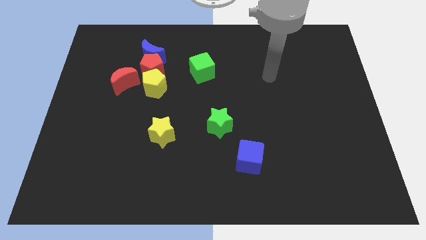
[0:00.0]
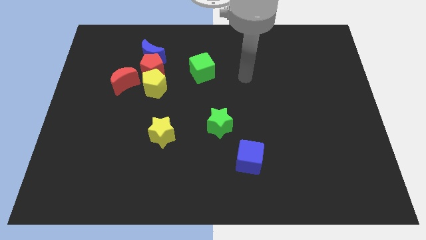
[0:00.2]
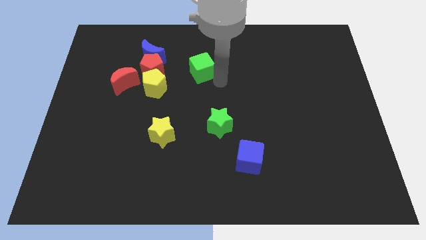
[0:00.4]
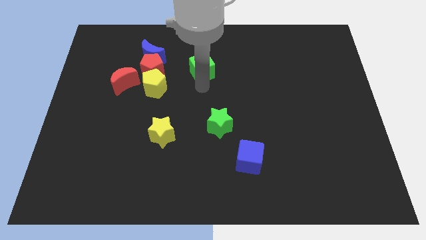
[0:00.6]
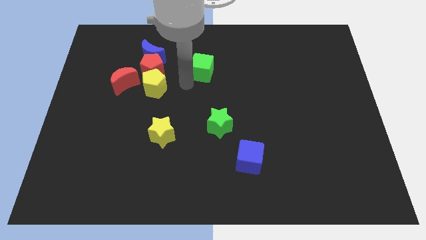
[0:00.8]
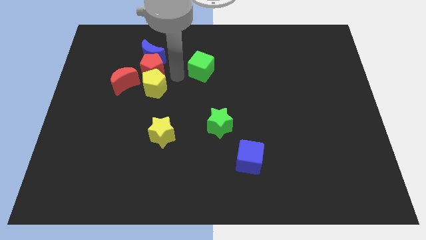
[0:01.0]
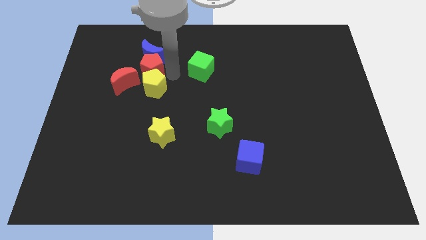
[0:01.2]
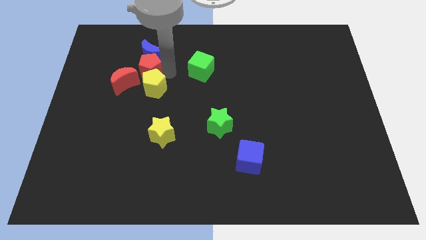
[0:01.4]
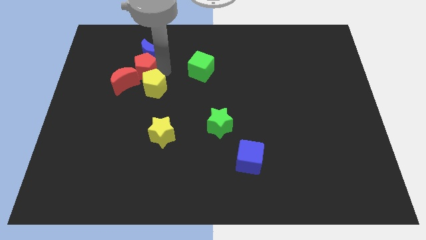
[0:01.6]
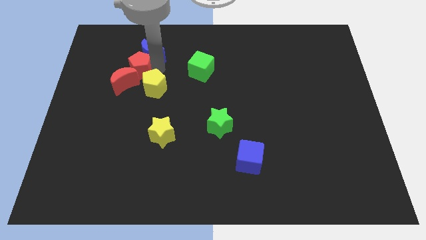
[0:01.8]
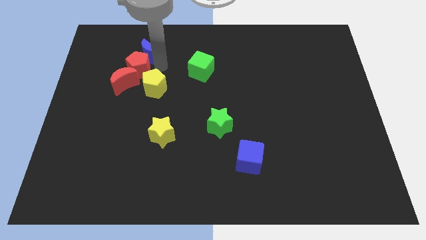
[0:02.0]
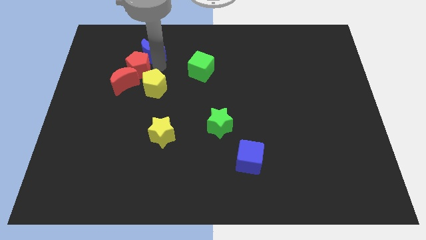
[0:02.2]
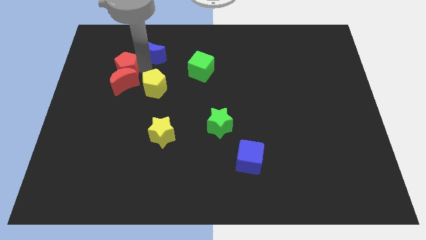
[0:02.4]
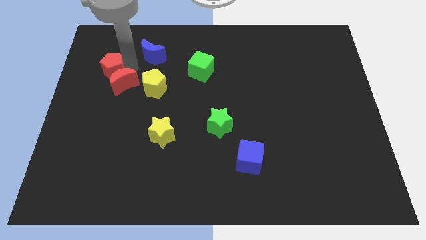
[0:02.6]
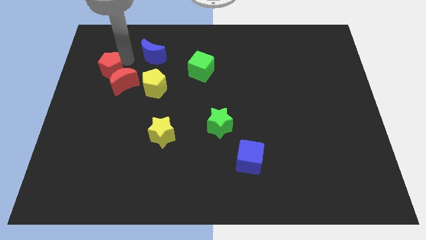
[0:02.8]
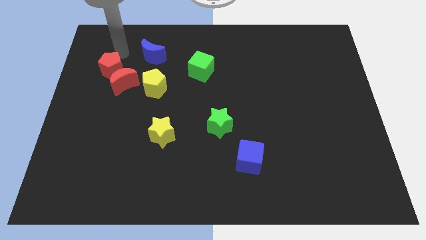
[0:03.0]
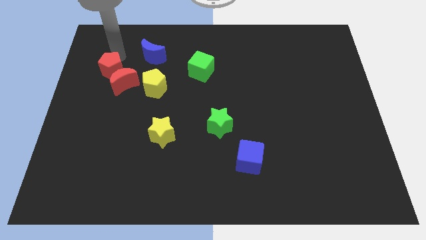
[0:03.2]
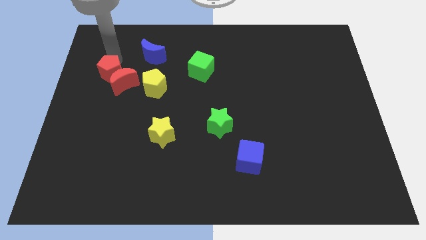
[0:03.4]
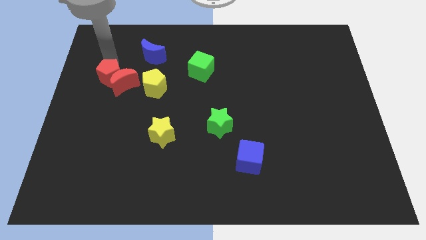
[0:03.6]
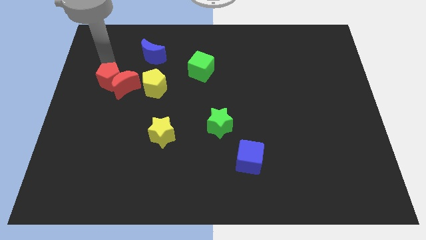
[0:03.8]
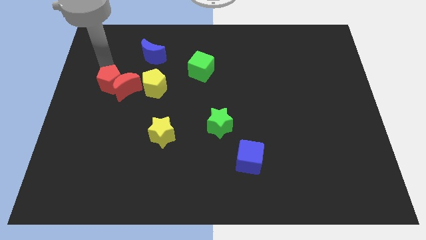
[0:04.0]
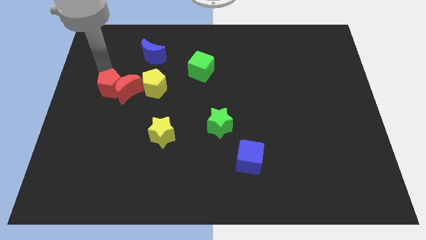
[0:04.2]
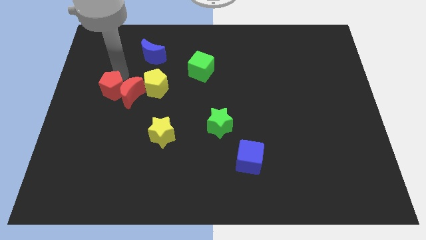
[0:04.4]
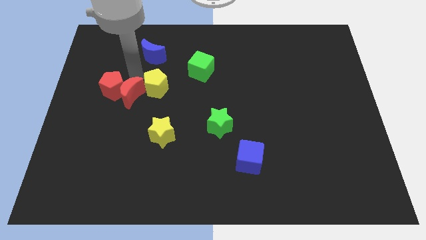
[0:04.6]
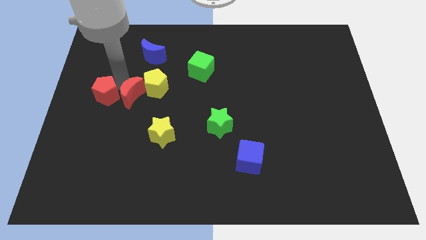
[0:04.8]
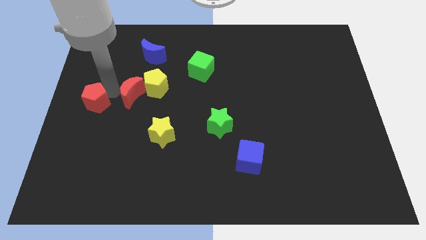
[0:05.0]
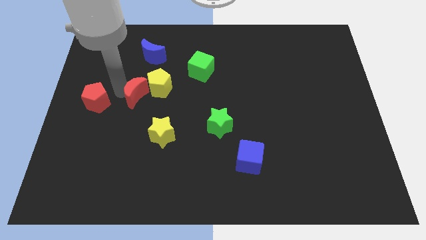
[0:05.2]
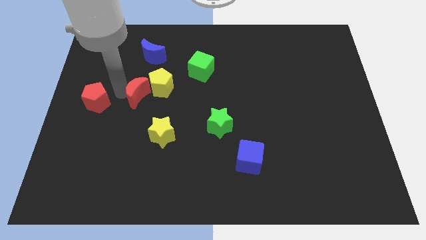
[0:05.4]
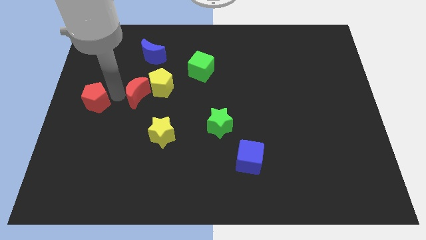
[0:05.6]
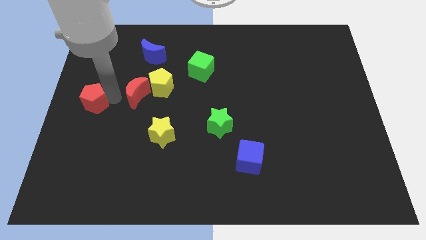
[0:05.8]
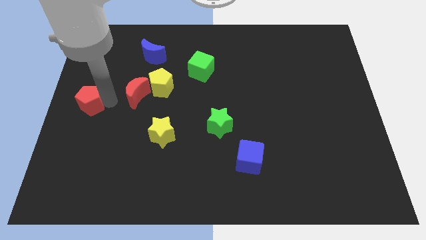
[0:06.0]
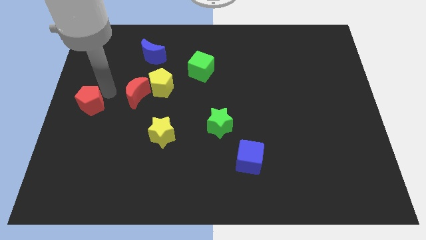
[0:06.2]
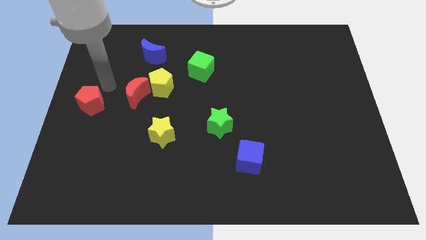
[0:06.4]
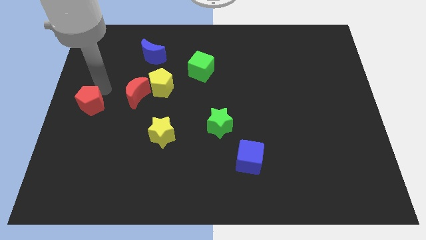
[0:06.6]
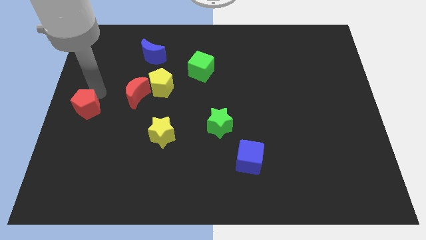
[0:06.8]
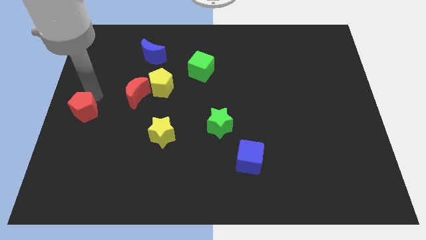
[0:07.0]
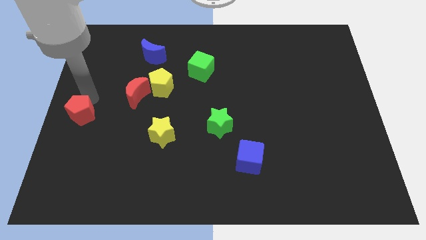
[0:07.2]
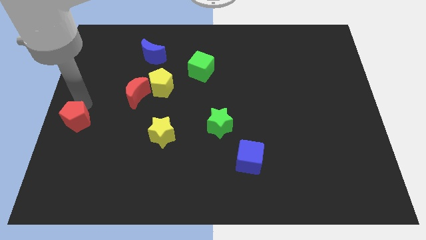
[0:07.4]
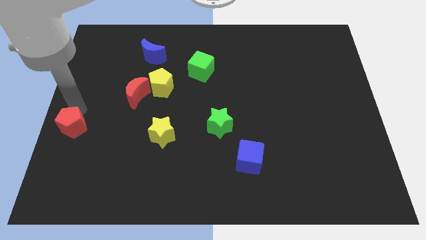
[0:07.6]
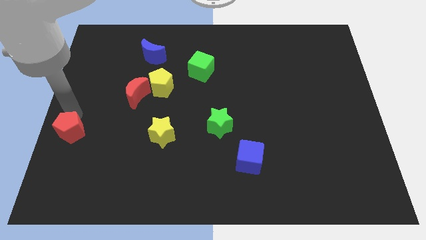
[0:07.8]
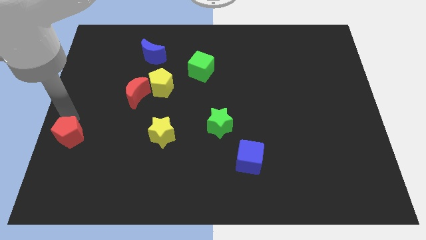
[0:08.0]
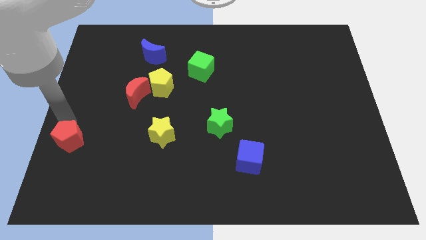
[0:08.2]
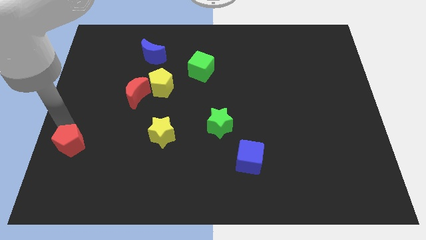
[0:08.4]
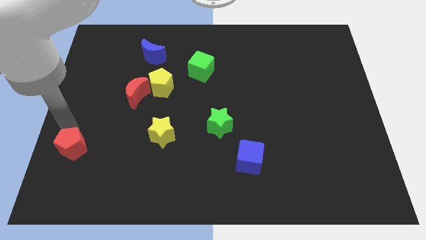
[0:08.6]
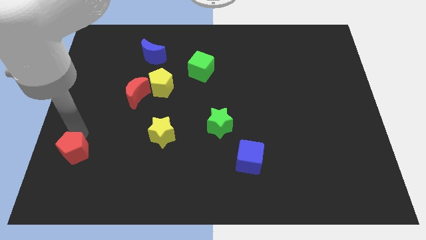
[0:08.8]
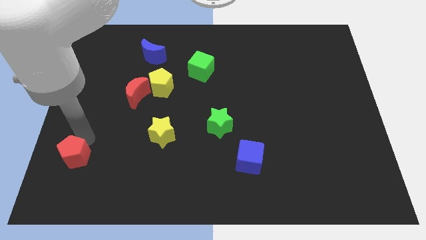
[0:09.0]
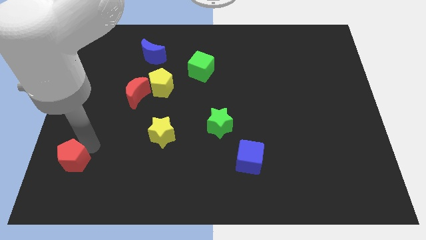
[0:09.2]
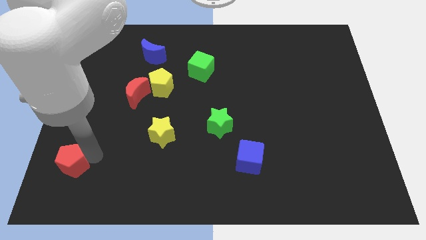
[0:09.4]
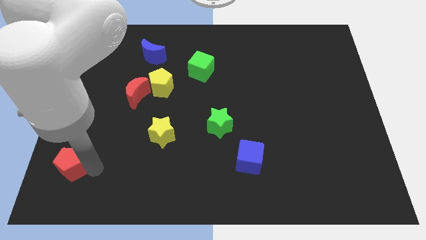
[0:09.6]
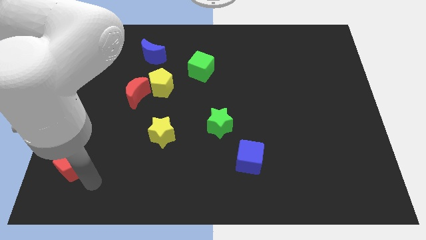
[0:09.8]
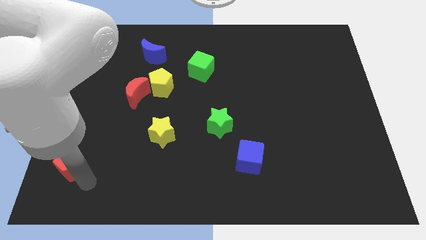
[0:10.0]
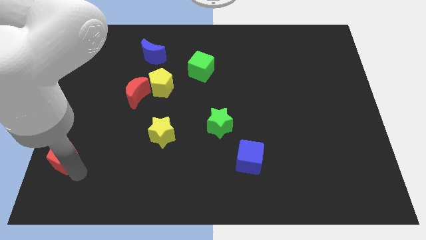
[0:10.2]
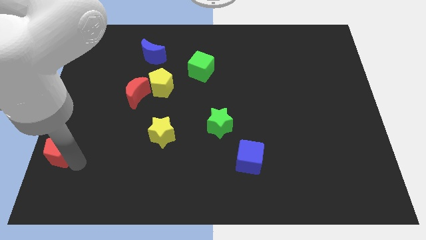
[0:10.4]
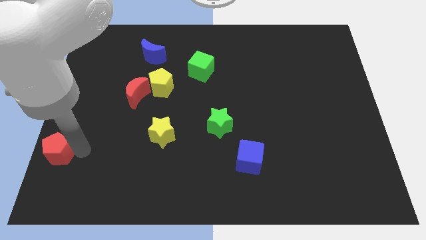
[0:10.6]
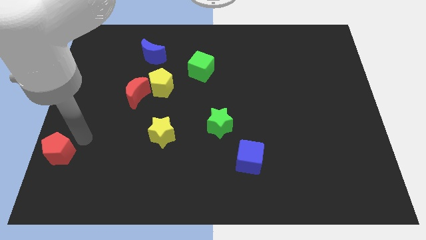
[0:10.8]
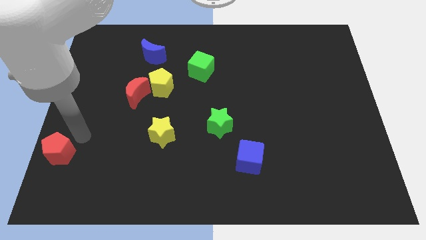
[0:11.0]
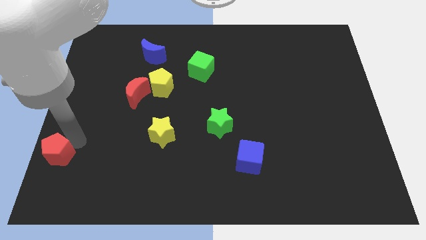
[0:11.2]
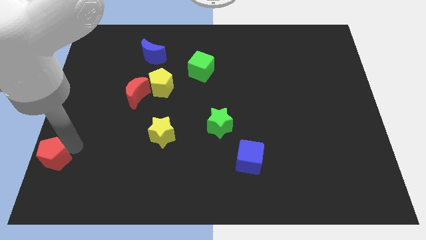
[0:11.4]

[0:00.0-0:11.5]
put the red pentagon to the lower left corner

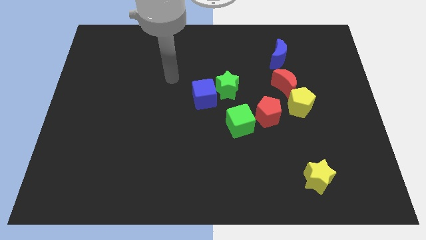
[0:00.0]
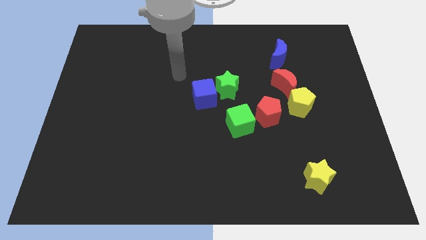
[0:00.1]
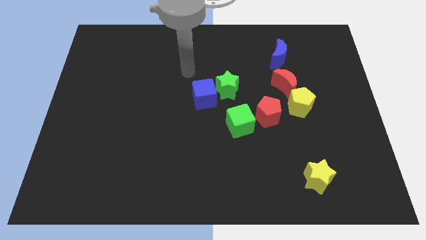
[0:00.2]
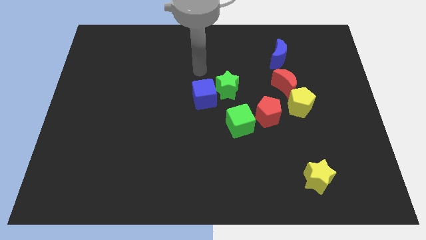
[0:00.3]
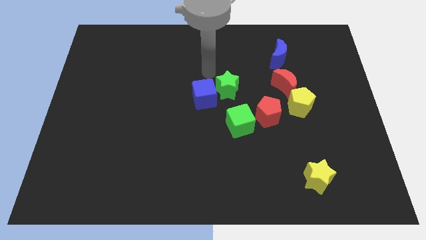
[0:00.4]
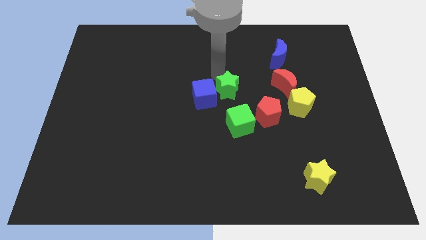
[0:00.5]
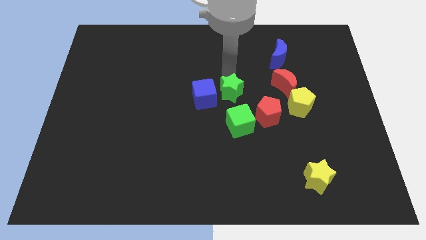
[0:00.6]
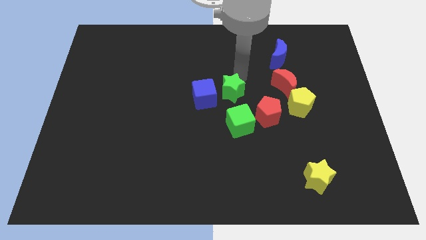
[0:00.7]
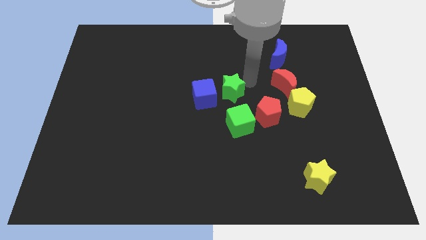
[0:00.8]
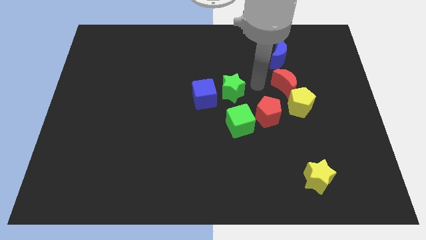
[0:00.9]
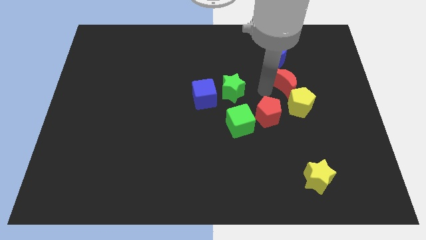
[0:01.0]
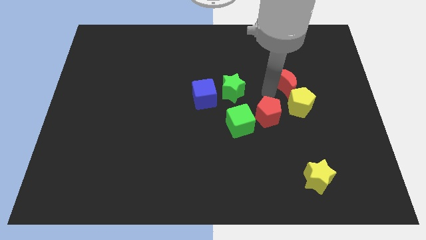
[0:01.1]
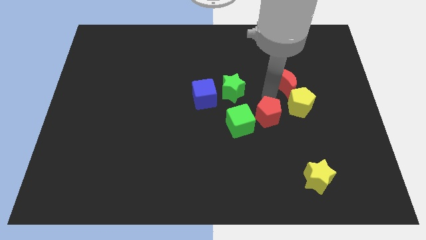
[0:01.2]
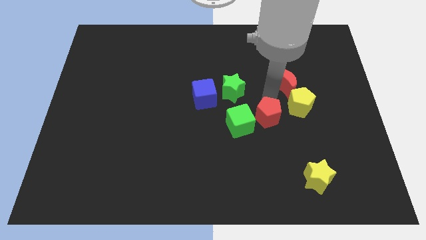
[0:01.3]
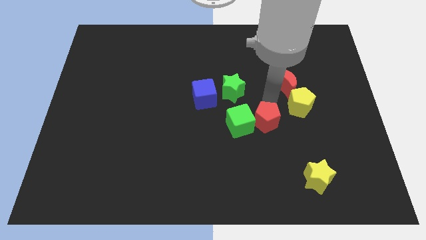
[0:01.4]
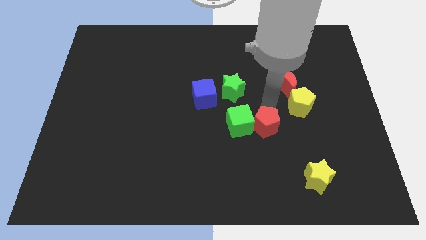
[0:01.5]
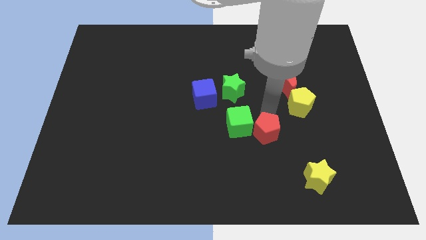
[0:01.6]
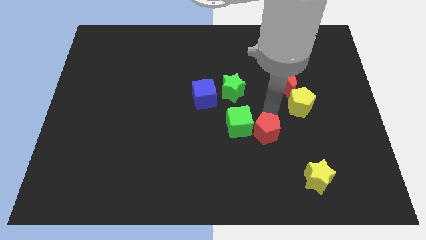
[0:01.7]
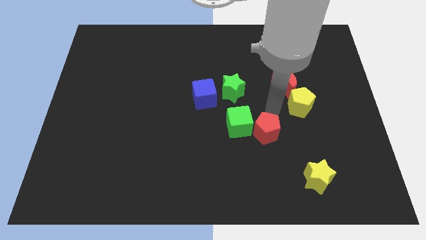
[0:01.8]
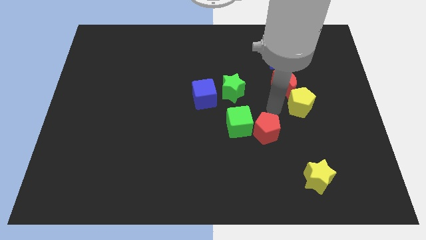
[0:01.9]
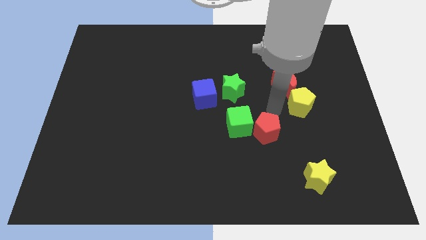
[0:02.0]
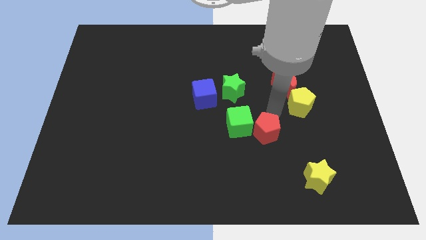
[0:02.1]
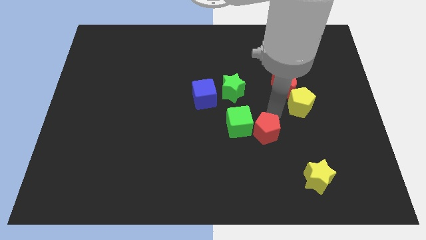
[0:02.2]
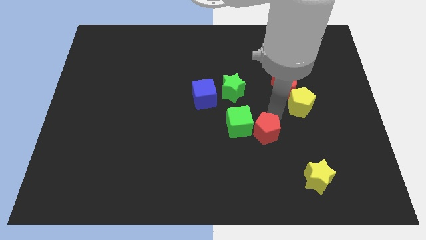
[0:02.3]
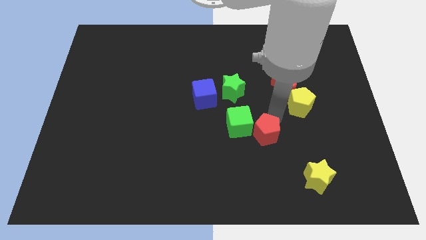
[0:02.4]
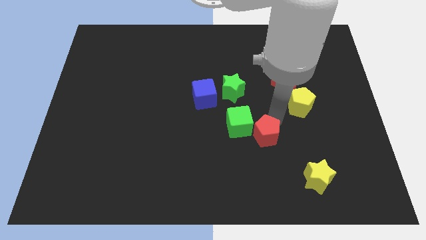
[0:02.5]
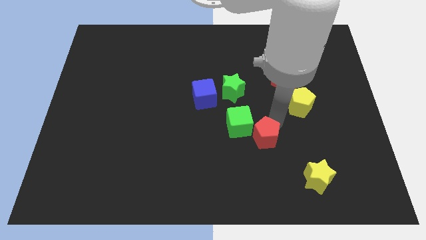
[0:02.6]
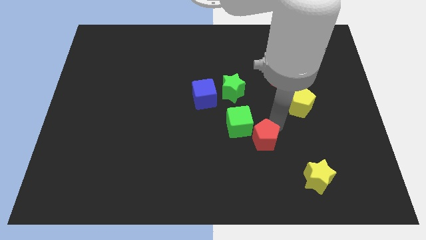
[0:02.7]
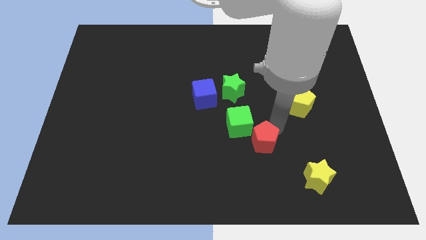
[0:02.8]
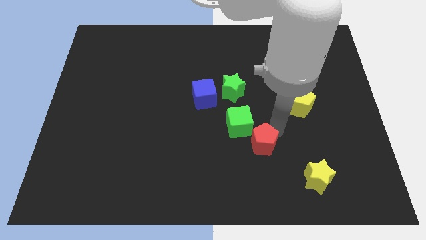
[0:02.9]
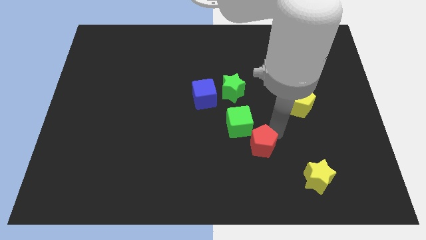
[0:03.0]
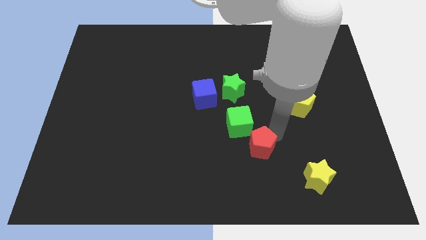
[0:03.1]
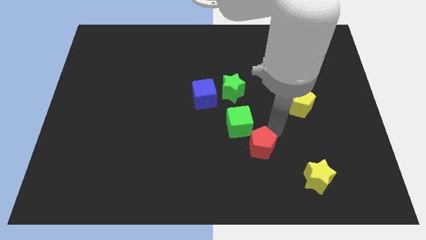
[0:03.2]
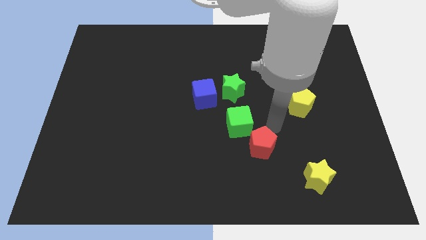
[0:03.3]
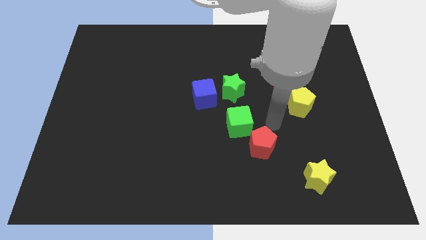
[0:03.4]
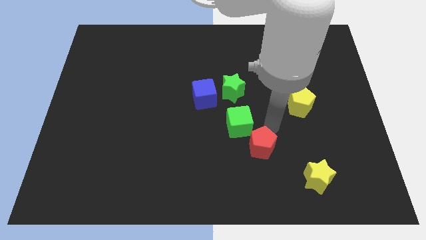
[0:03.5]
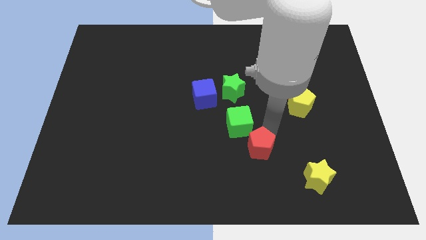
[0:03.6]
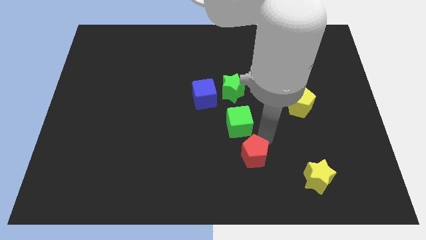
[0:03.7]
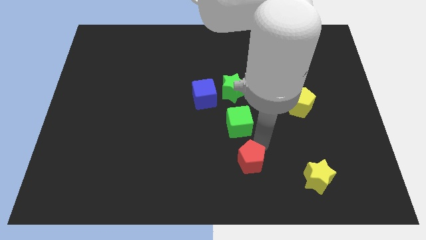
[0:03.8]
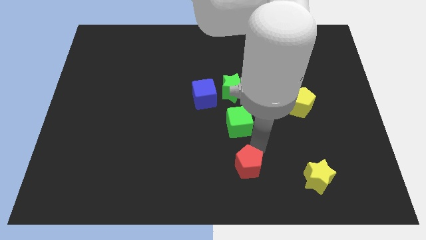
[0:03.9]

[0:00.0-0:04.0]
move the red pentagon to the bottom
